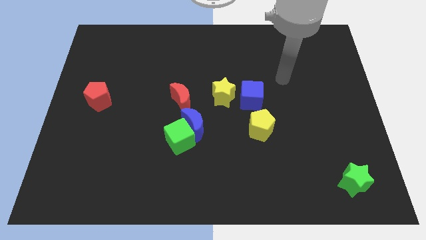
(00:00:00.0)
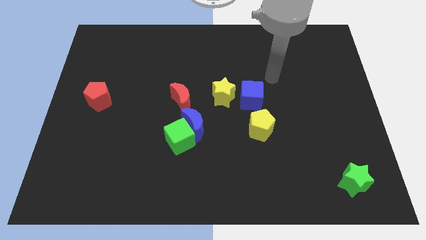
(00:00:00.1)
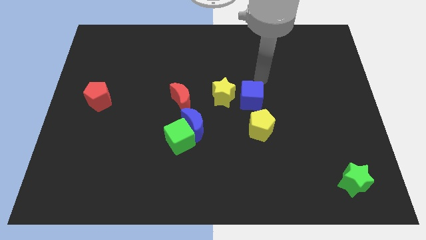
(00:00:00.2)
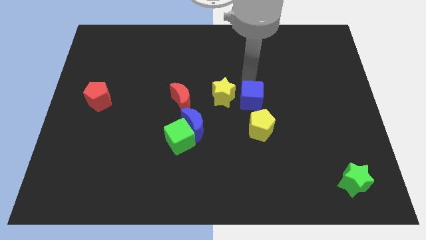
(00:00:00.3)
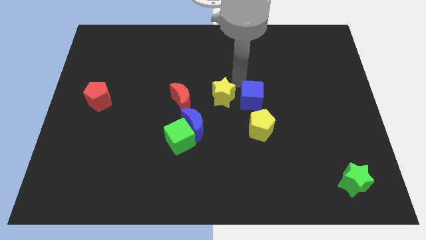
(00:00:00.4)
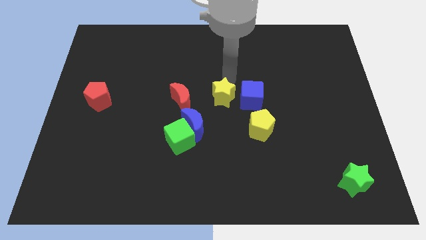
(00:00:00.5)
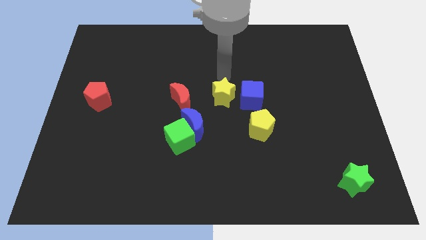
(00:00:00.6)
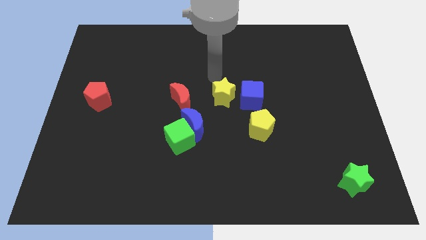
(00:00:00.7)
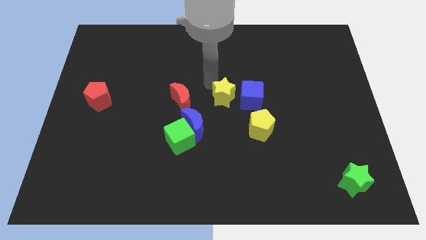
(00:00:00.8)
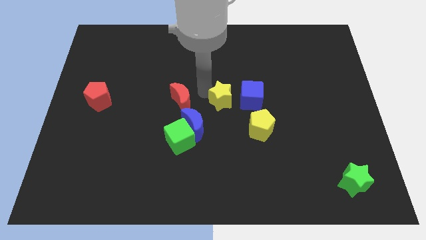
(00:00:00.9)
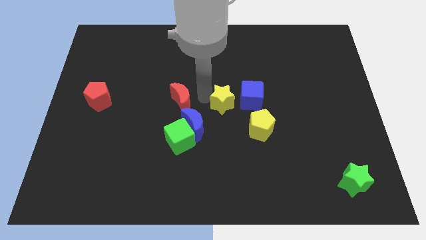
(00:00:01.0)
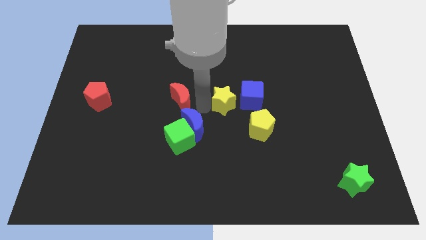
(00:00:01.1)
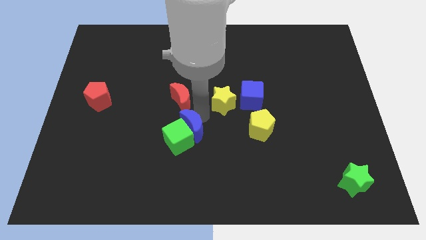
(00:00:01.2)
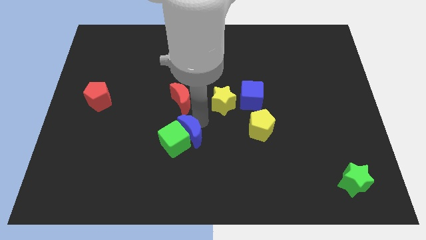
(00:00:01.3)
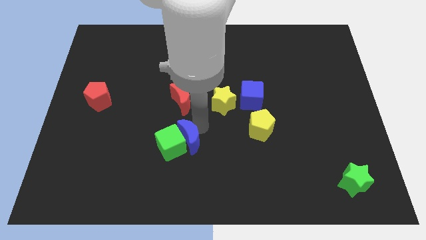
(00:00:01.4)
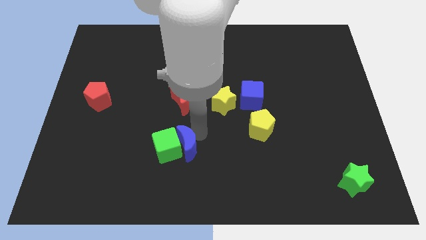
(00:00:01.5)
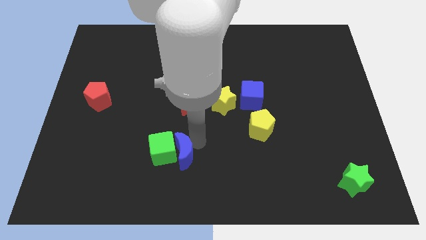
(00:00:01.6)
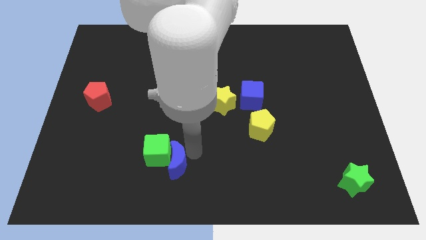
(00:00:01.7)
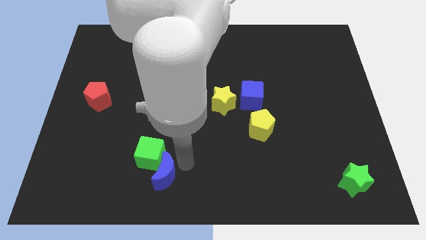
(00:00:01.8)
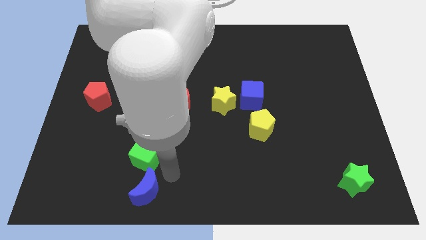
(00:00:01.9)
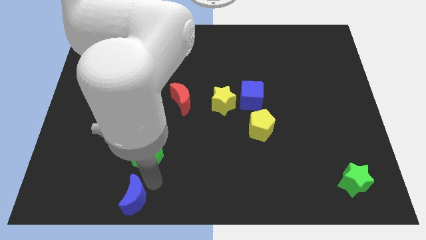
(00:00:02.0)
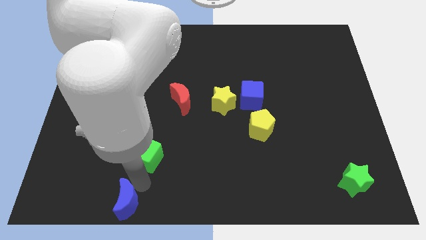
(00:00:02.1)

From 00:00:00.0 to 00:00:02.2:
separate the green cube from the blue moon

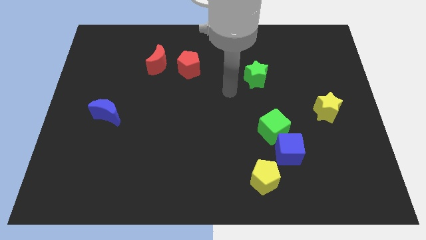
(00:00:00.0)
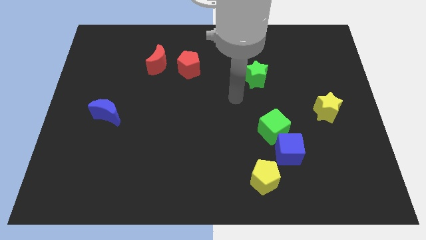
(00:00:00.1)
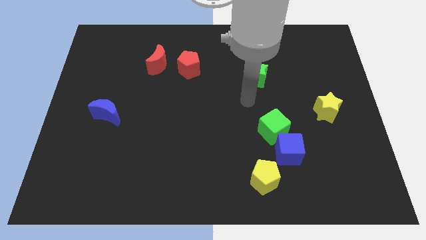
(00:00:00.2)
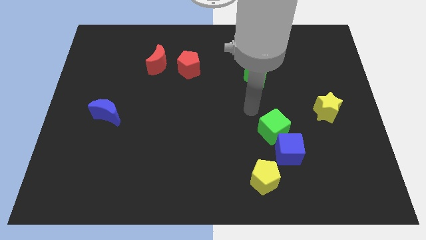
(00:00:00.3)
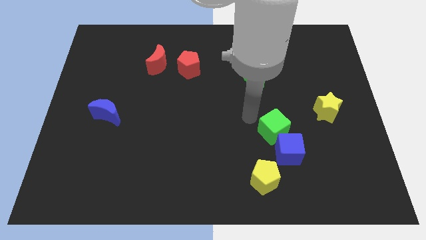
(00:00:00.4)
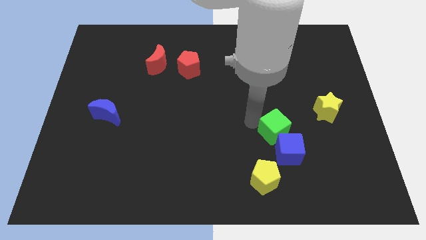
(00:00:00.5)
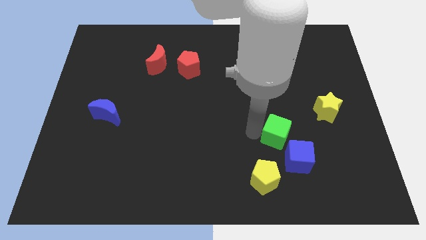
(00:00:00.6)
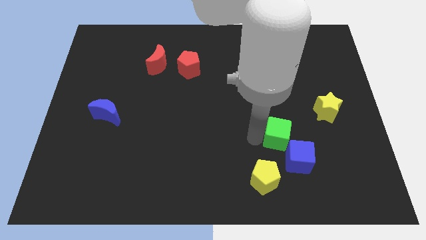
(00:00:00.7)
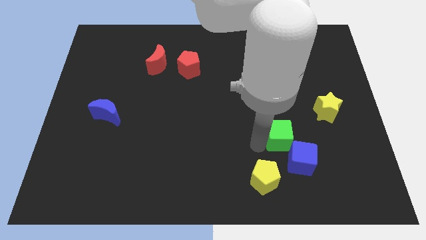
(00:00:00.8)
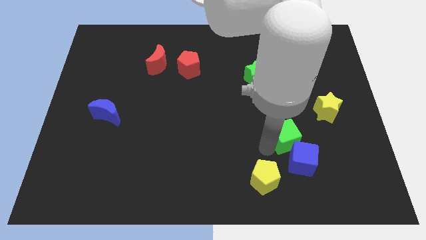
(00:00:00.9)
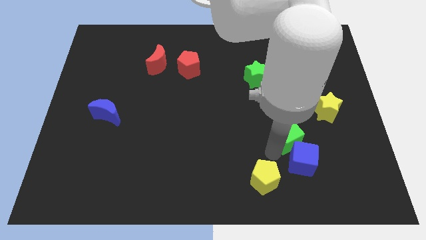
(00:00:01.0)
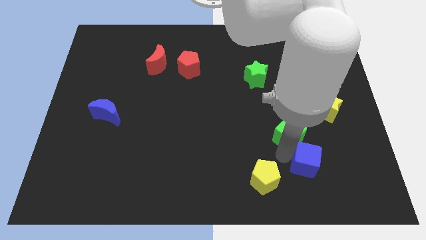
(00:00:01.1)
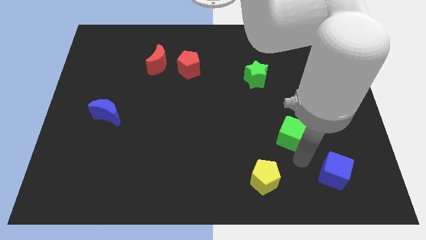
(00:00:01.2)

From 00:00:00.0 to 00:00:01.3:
separate the green cube from the blue cube

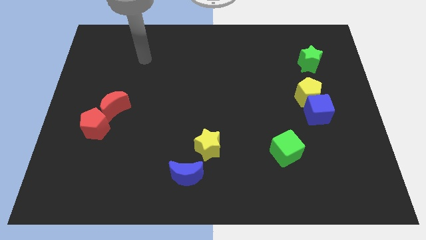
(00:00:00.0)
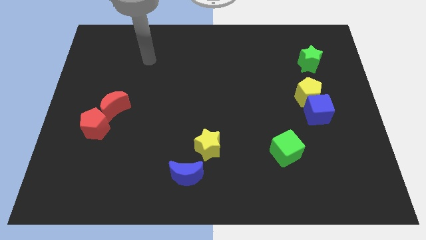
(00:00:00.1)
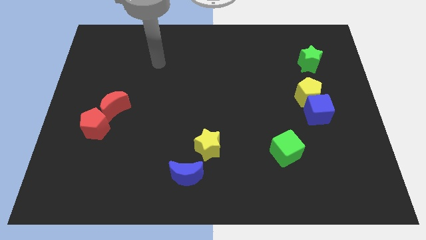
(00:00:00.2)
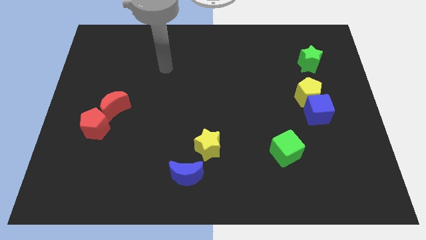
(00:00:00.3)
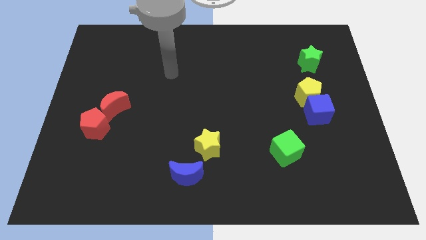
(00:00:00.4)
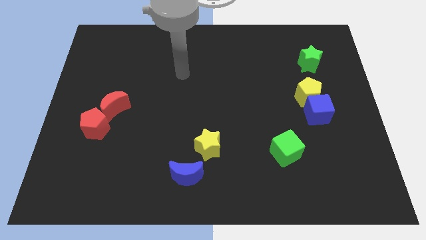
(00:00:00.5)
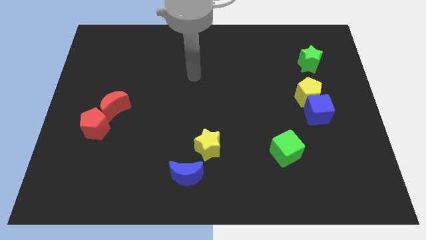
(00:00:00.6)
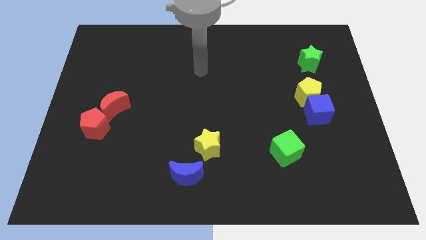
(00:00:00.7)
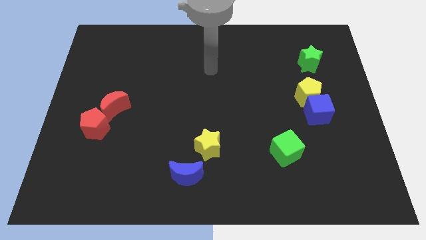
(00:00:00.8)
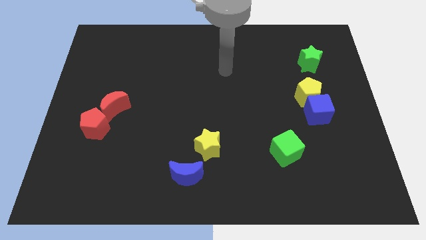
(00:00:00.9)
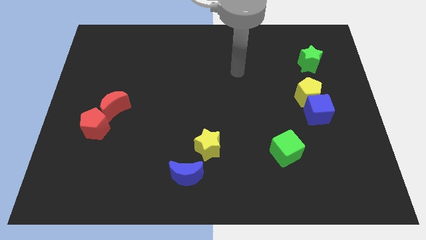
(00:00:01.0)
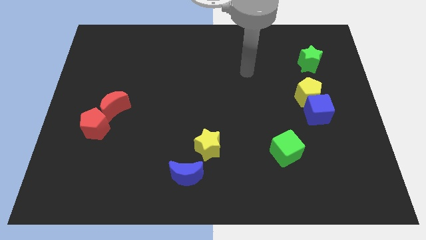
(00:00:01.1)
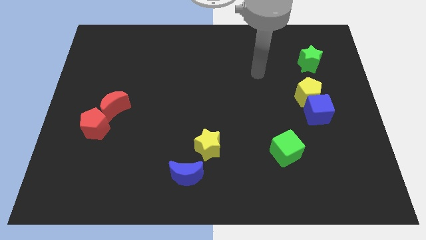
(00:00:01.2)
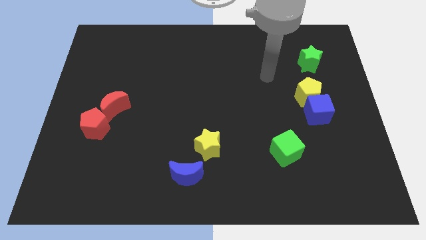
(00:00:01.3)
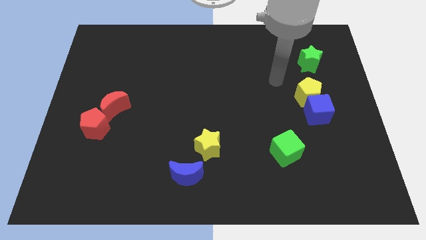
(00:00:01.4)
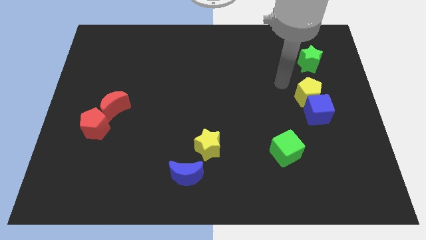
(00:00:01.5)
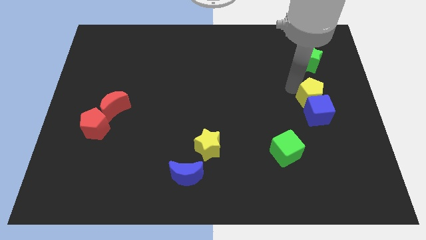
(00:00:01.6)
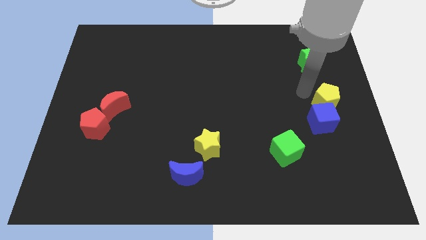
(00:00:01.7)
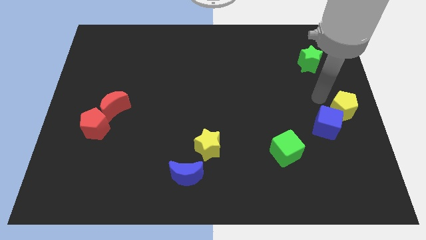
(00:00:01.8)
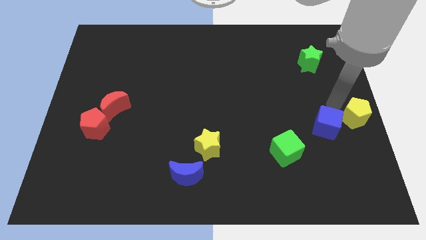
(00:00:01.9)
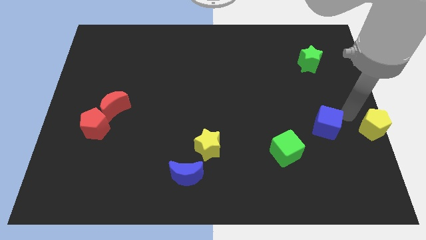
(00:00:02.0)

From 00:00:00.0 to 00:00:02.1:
separate the blue cube from the yellow pentagon

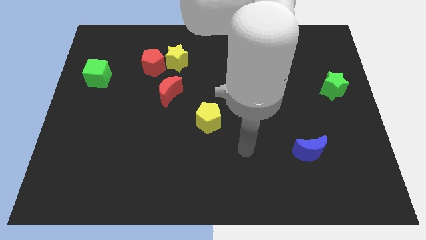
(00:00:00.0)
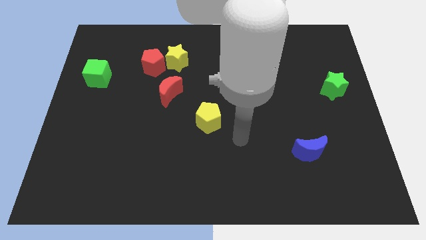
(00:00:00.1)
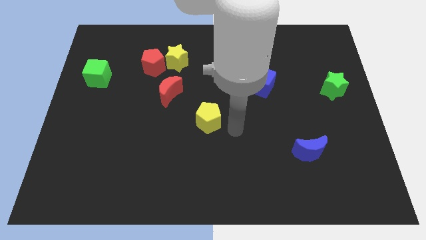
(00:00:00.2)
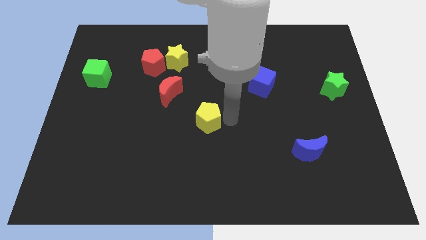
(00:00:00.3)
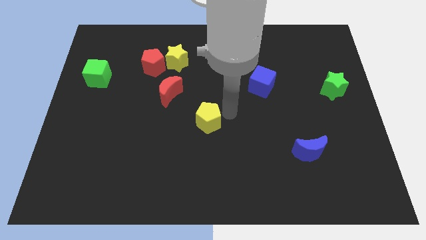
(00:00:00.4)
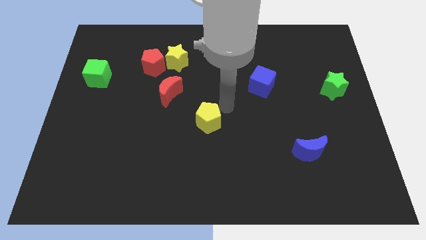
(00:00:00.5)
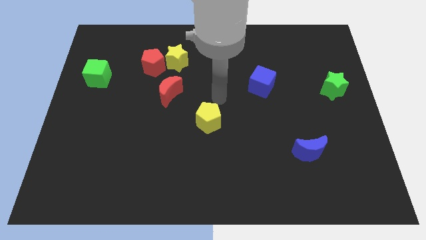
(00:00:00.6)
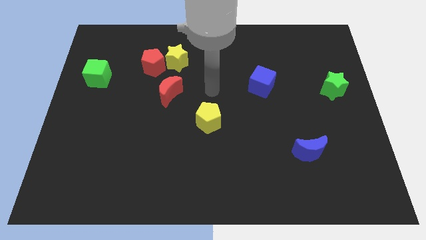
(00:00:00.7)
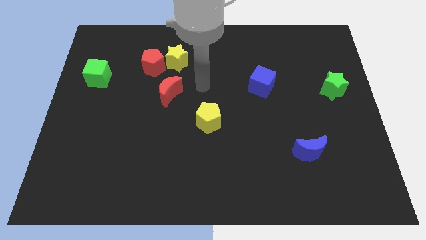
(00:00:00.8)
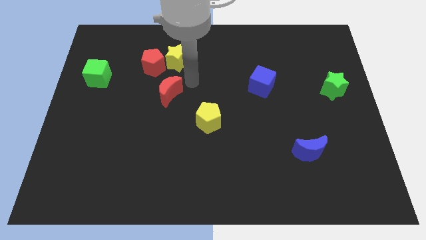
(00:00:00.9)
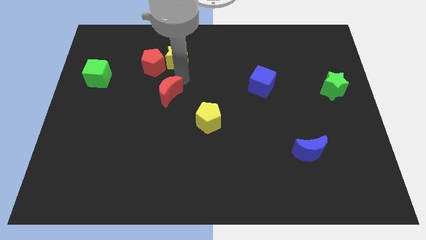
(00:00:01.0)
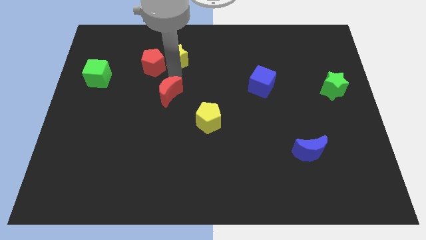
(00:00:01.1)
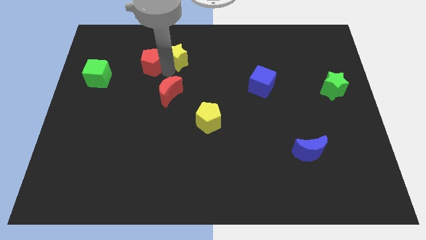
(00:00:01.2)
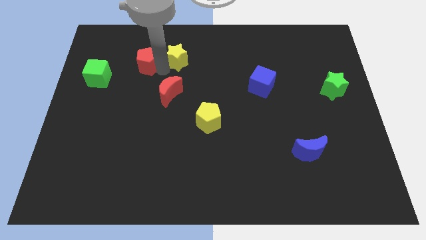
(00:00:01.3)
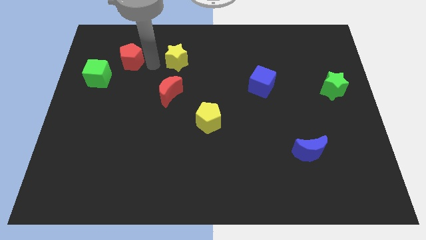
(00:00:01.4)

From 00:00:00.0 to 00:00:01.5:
pull the yellow star apart from the red pentagon

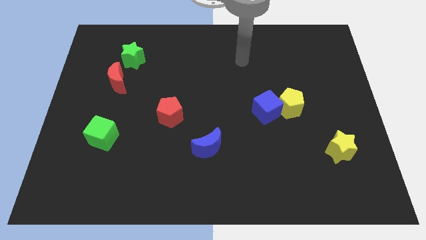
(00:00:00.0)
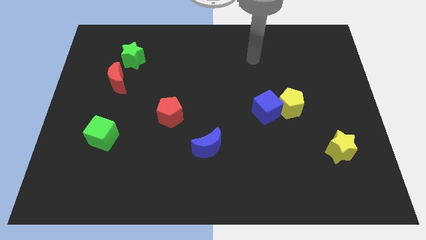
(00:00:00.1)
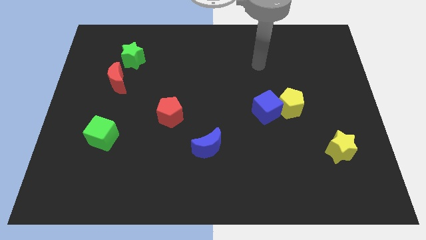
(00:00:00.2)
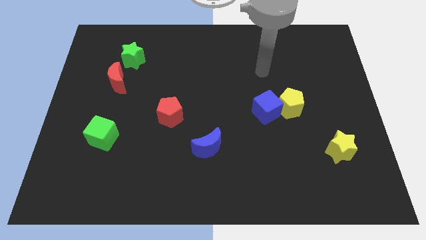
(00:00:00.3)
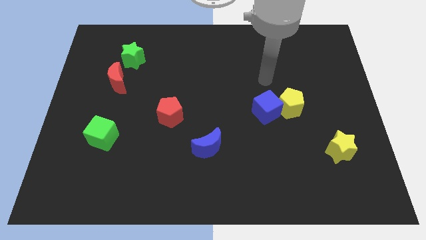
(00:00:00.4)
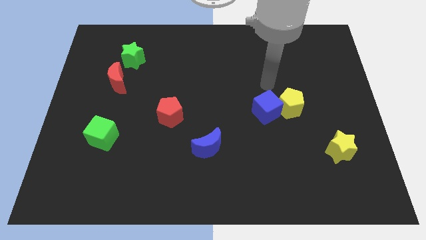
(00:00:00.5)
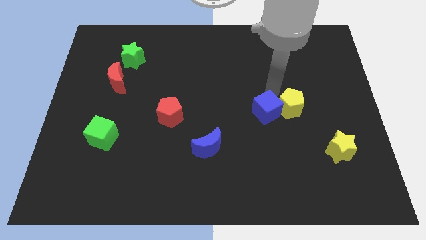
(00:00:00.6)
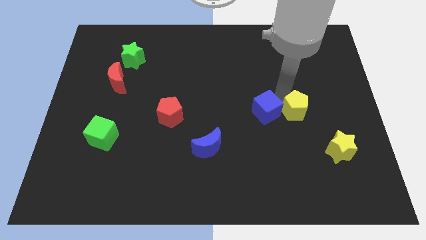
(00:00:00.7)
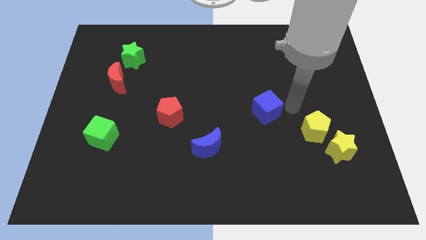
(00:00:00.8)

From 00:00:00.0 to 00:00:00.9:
pull the blue cube apart from the yellow pentagon

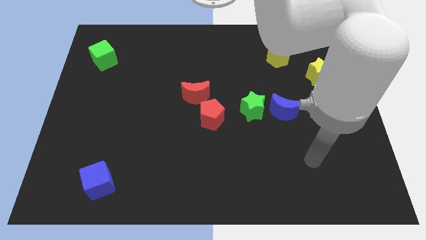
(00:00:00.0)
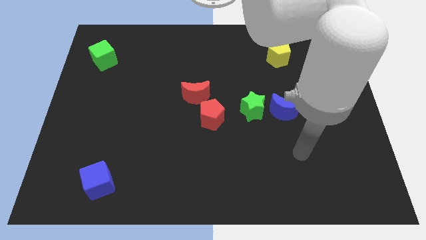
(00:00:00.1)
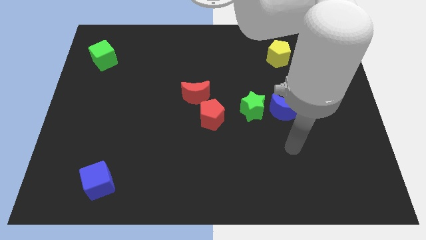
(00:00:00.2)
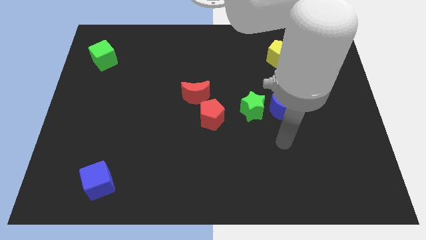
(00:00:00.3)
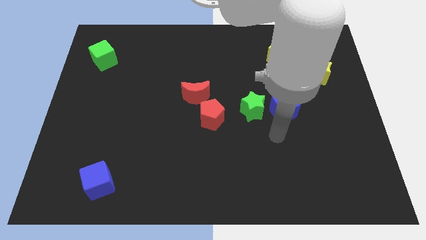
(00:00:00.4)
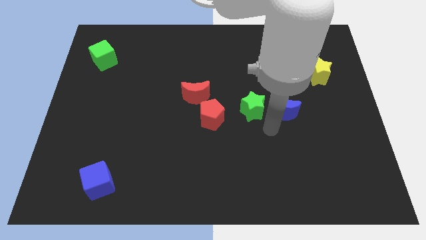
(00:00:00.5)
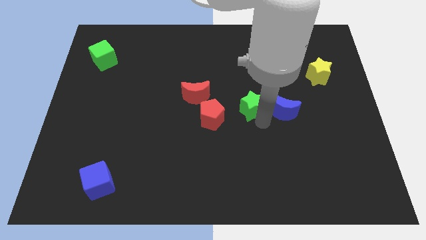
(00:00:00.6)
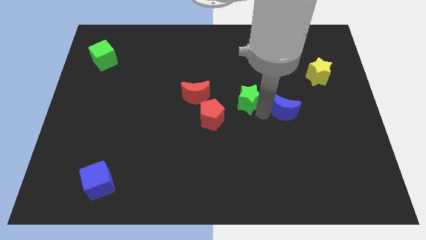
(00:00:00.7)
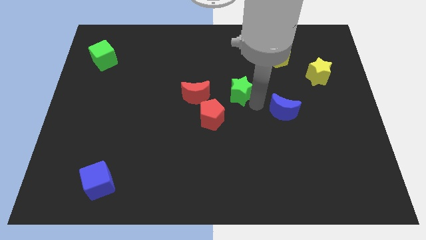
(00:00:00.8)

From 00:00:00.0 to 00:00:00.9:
pull the blue moon apart from the green star

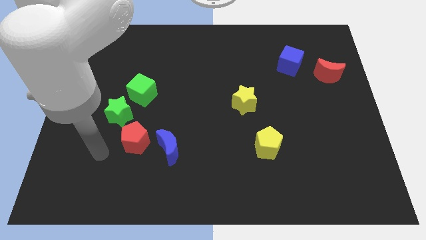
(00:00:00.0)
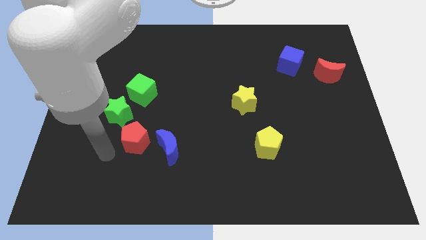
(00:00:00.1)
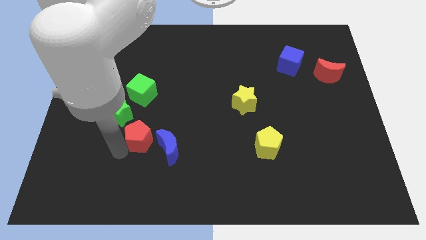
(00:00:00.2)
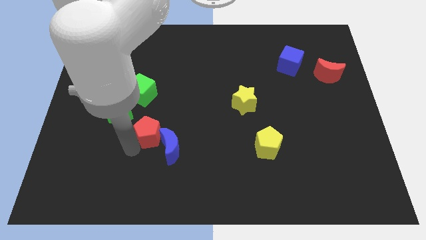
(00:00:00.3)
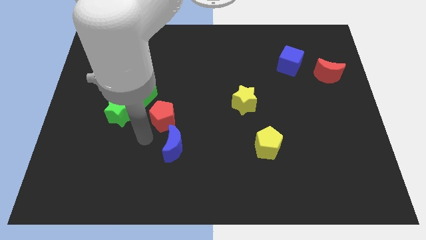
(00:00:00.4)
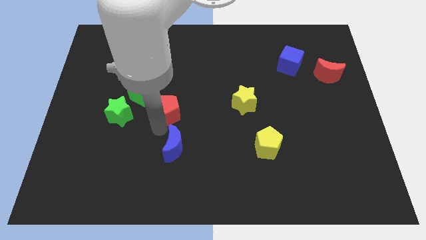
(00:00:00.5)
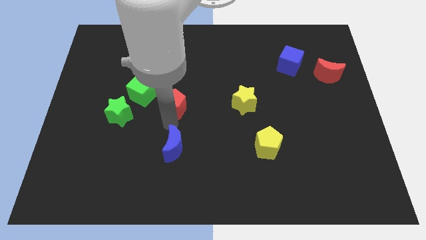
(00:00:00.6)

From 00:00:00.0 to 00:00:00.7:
separate the blue moon from the red pentagon
